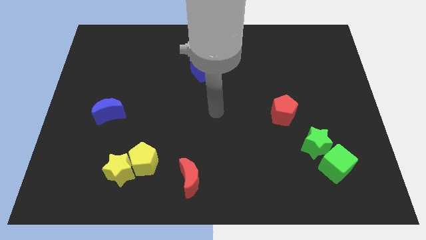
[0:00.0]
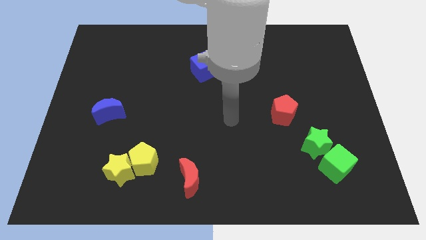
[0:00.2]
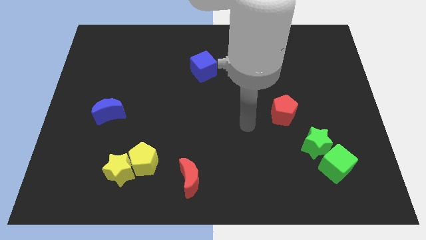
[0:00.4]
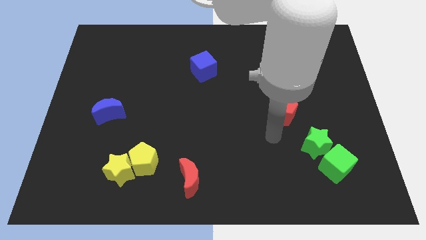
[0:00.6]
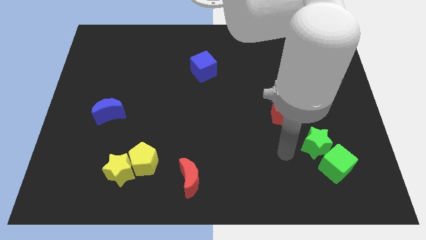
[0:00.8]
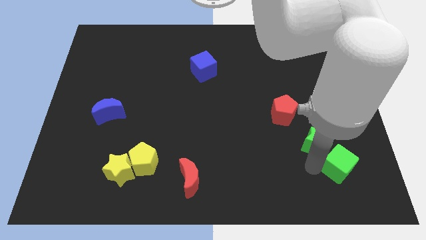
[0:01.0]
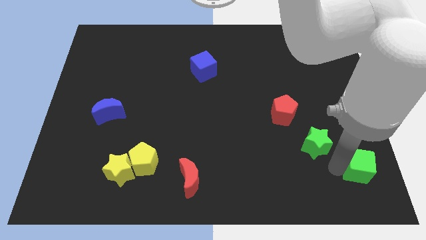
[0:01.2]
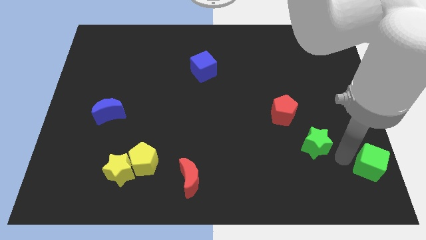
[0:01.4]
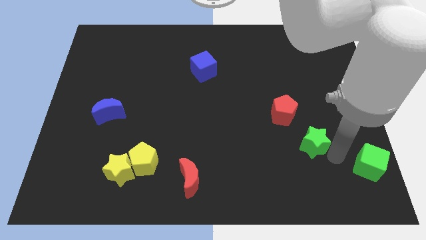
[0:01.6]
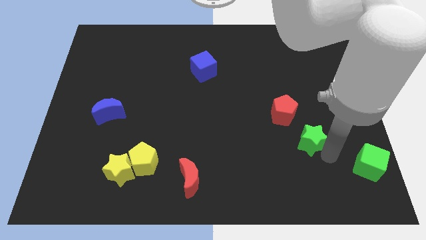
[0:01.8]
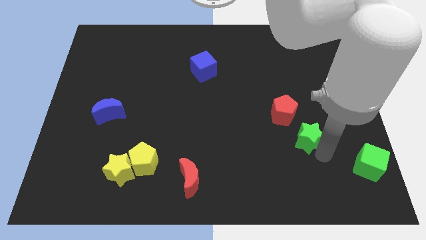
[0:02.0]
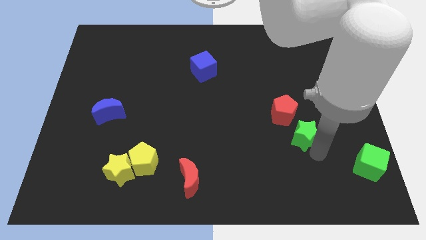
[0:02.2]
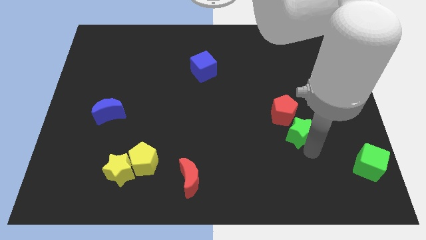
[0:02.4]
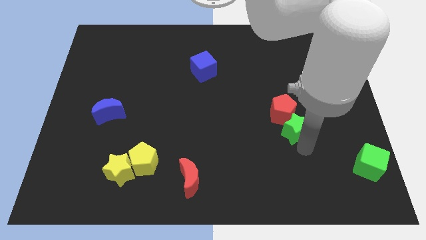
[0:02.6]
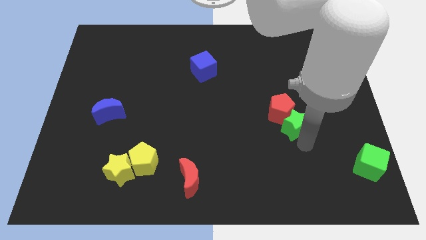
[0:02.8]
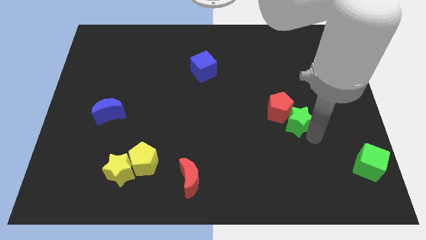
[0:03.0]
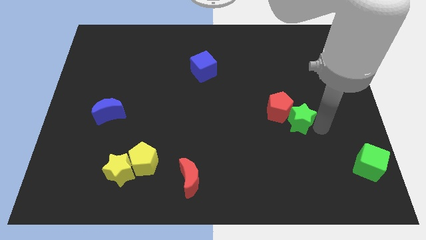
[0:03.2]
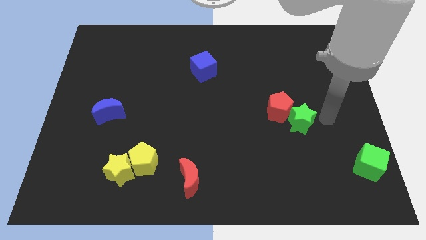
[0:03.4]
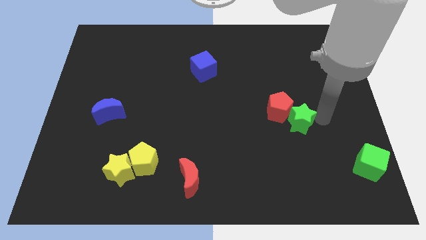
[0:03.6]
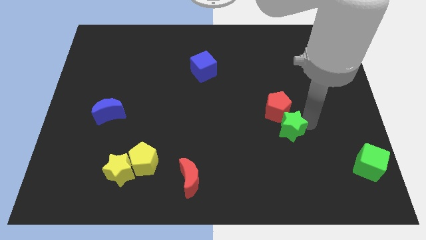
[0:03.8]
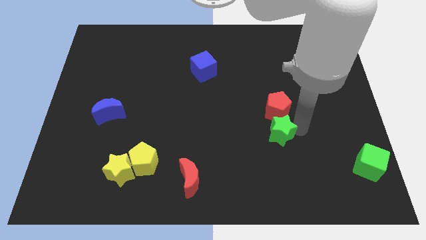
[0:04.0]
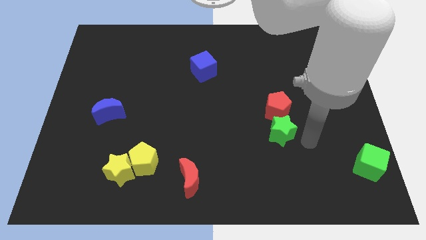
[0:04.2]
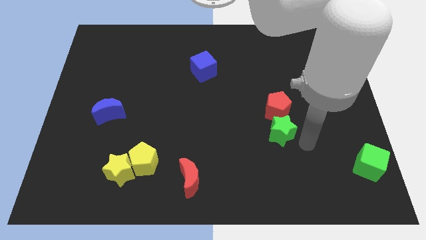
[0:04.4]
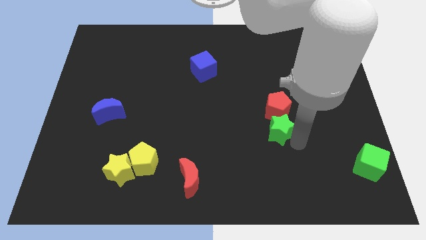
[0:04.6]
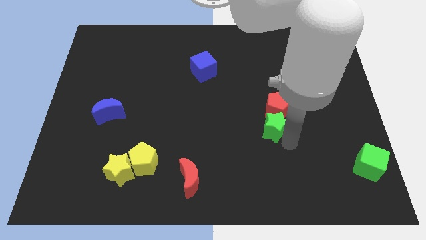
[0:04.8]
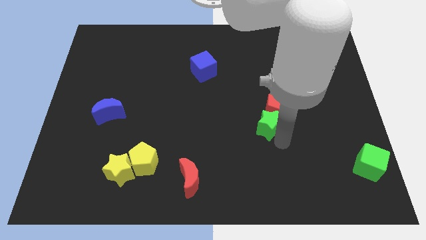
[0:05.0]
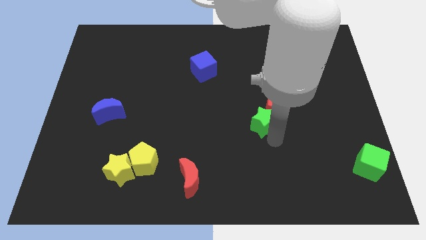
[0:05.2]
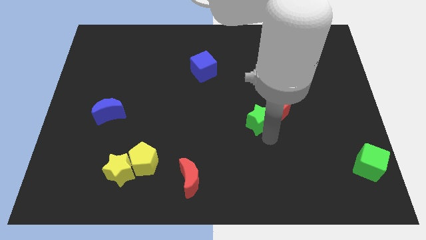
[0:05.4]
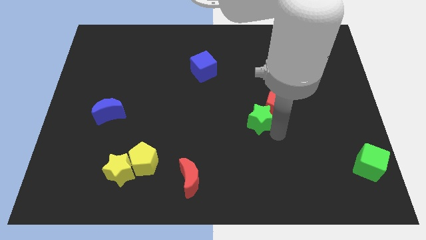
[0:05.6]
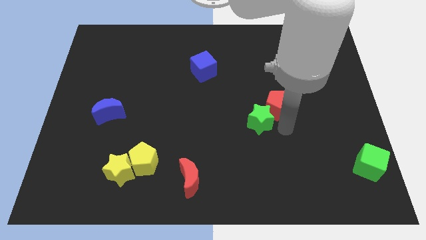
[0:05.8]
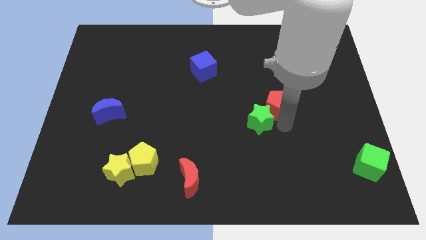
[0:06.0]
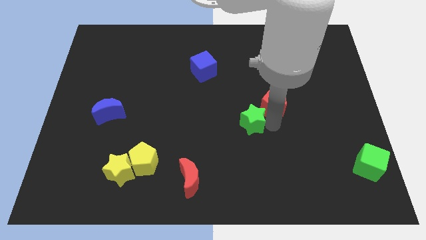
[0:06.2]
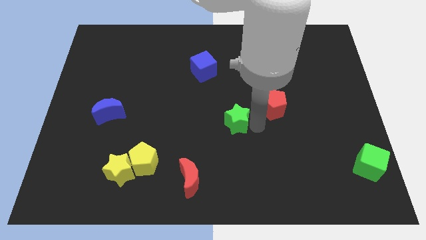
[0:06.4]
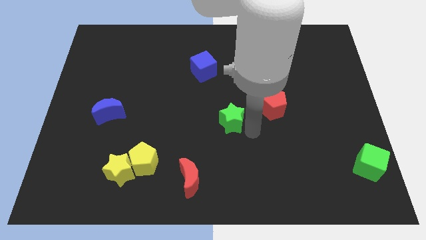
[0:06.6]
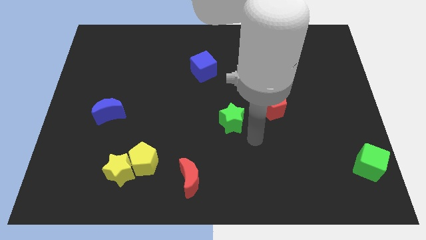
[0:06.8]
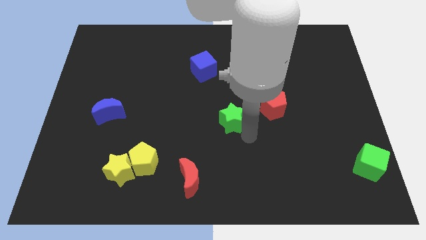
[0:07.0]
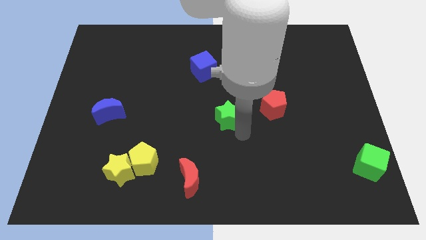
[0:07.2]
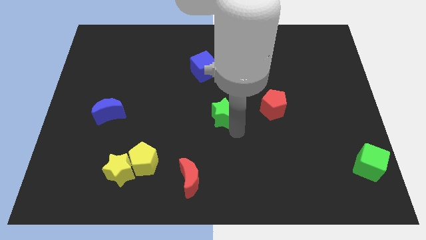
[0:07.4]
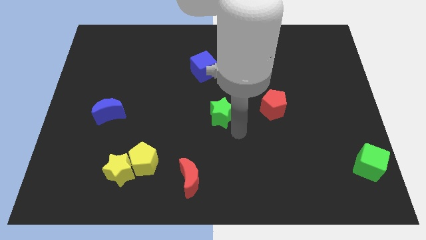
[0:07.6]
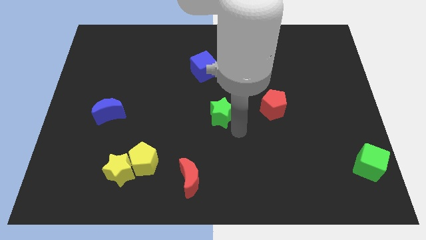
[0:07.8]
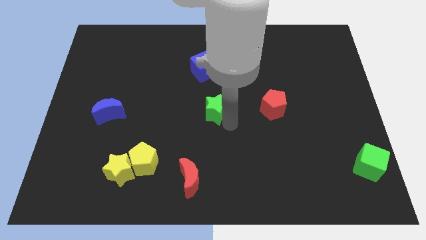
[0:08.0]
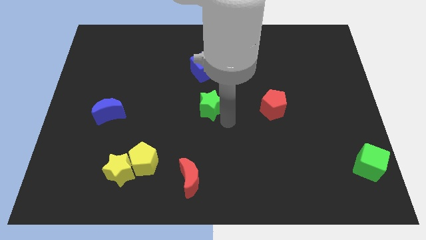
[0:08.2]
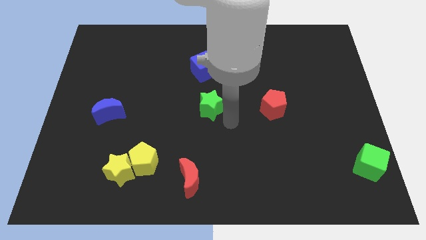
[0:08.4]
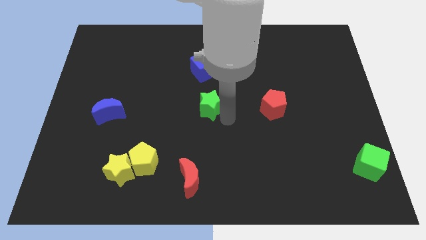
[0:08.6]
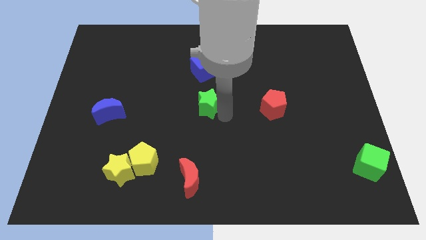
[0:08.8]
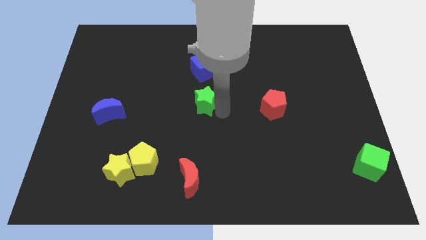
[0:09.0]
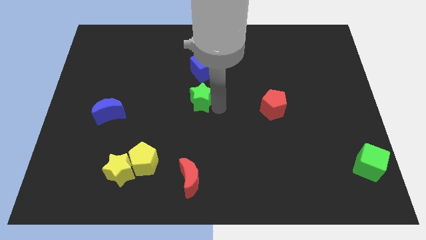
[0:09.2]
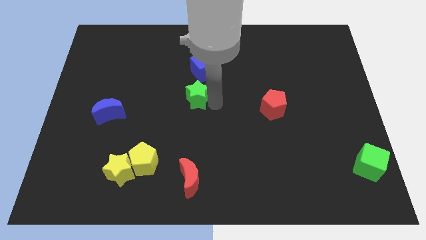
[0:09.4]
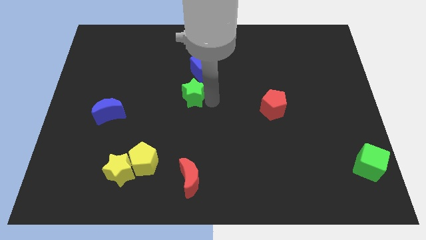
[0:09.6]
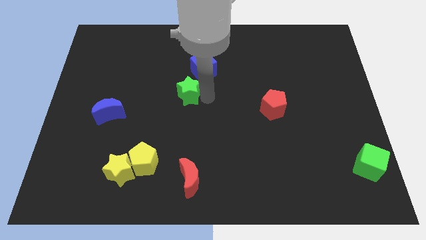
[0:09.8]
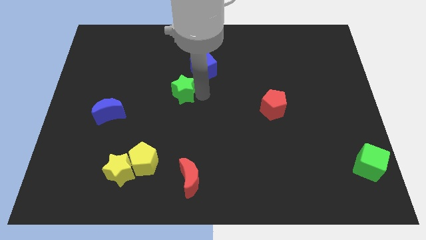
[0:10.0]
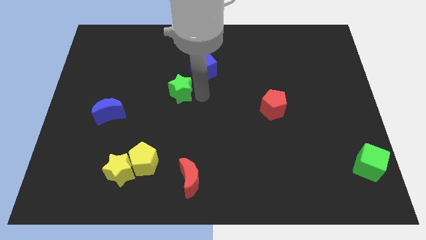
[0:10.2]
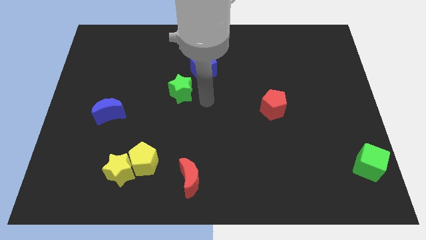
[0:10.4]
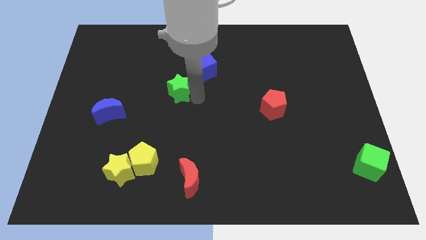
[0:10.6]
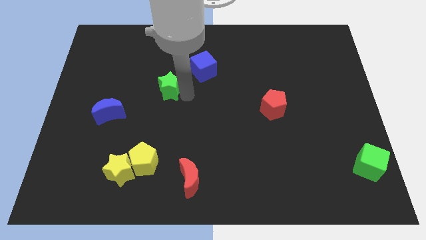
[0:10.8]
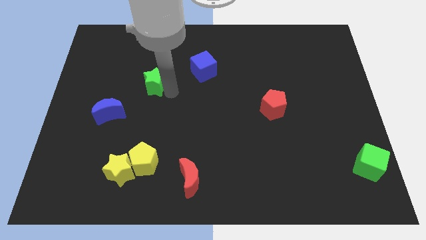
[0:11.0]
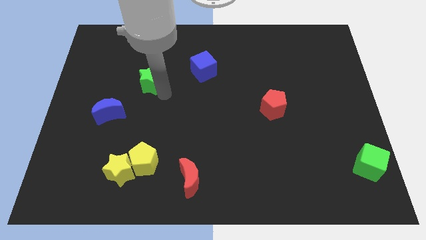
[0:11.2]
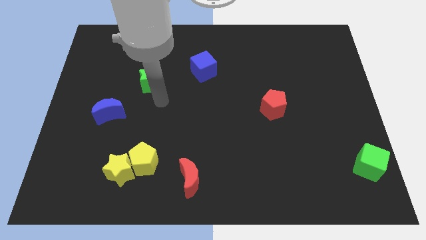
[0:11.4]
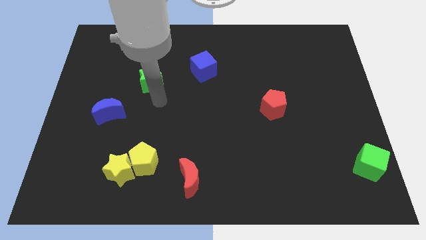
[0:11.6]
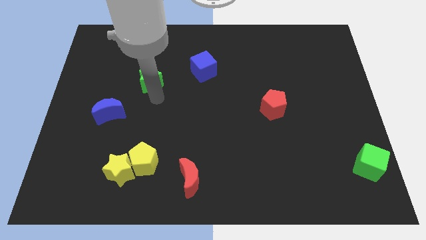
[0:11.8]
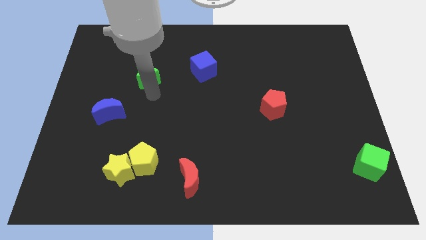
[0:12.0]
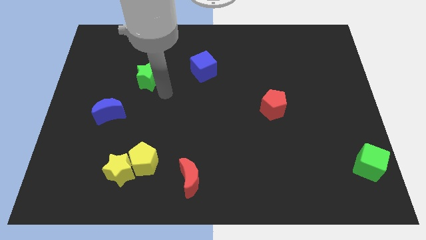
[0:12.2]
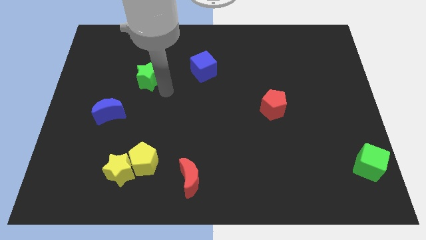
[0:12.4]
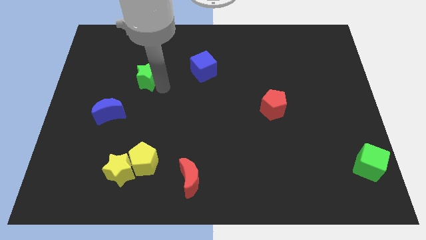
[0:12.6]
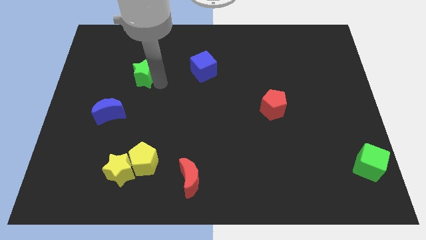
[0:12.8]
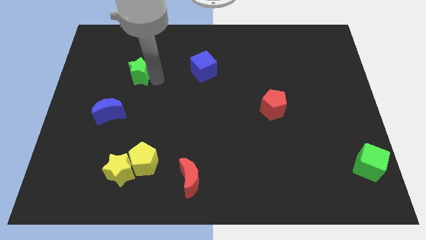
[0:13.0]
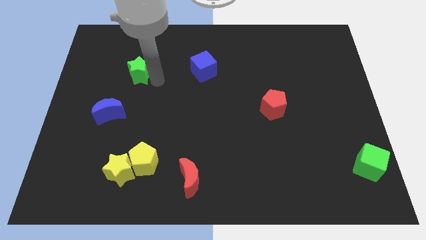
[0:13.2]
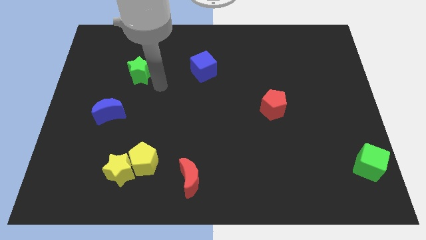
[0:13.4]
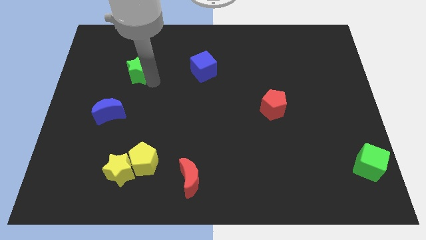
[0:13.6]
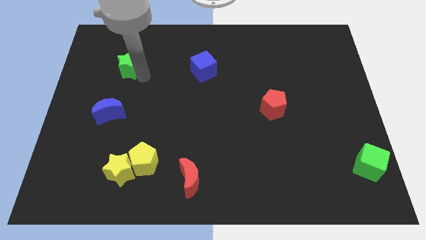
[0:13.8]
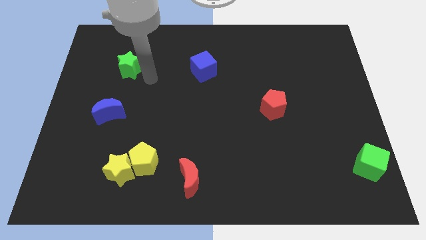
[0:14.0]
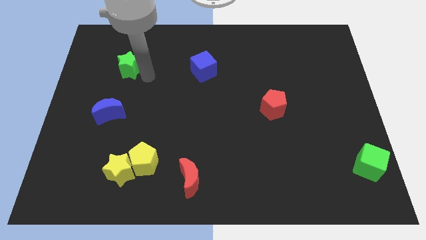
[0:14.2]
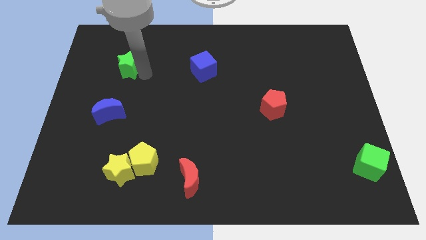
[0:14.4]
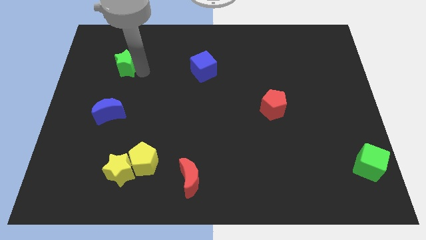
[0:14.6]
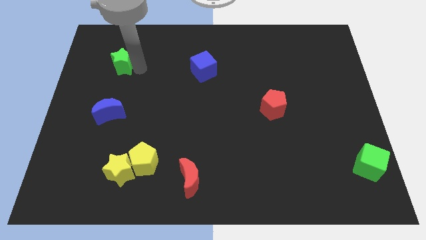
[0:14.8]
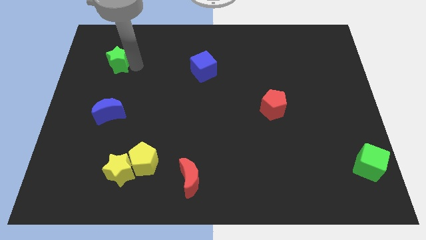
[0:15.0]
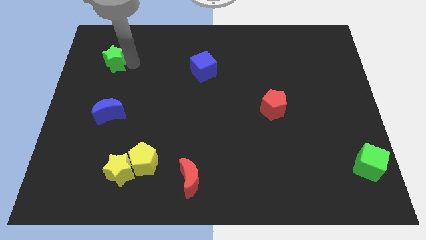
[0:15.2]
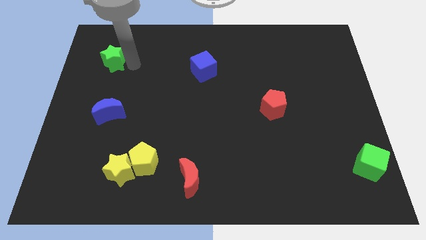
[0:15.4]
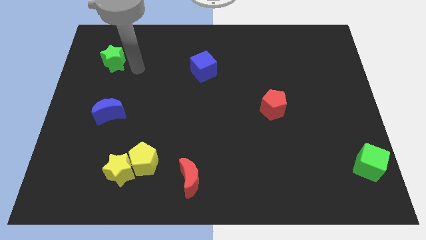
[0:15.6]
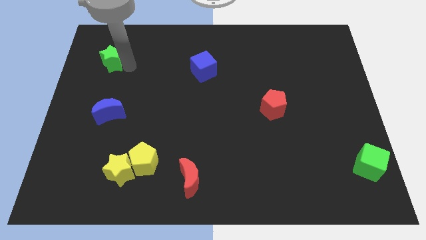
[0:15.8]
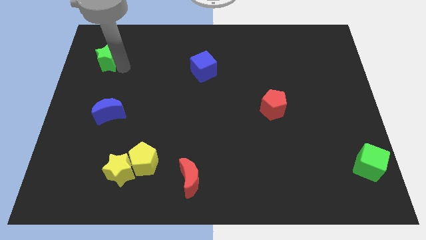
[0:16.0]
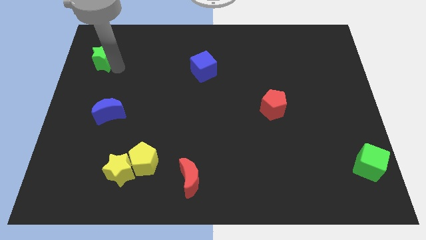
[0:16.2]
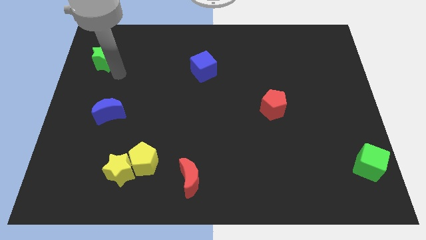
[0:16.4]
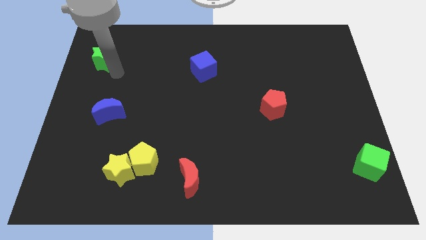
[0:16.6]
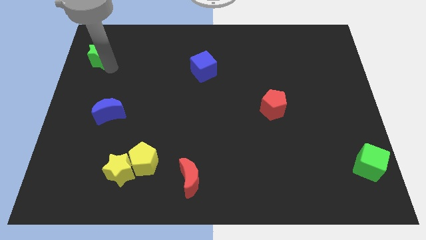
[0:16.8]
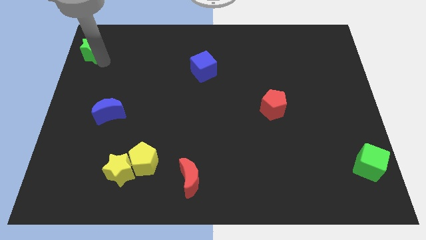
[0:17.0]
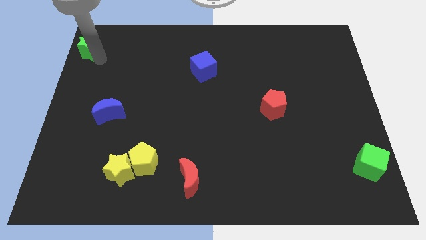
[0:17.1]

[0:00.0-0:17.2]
push the green star to the top left
